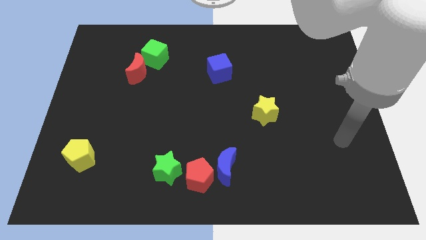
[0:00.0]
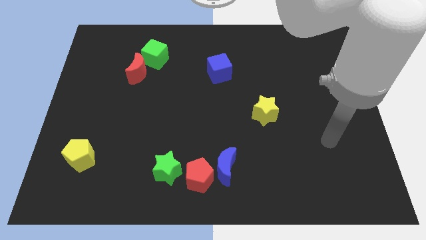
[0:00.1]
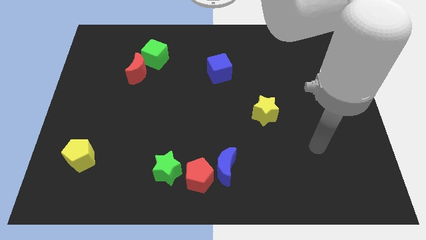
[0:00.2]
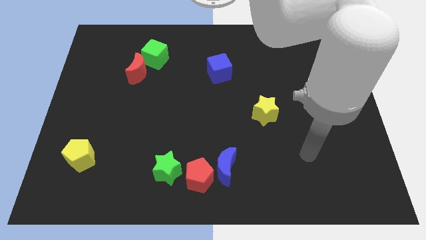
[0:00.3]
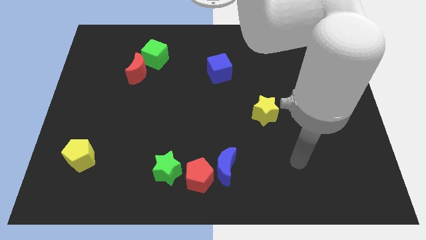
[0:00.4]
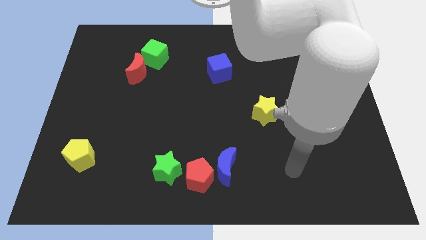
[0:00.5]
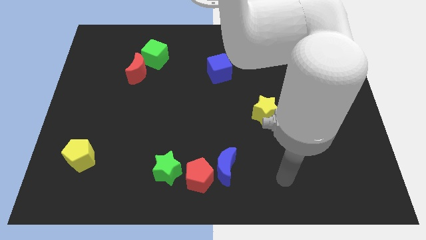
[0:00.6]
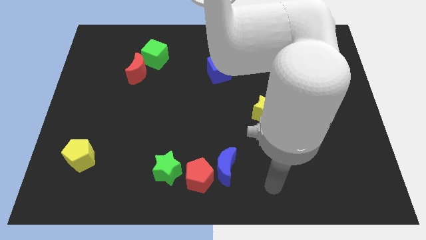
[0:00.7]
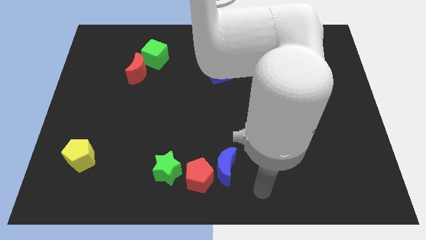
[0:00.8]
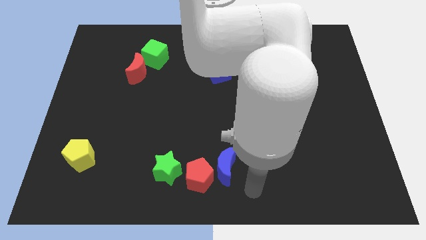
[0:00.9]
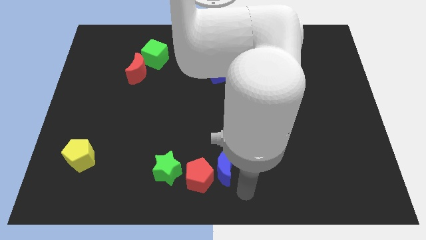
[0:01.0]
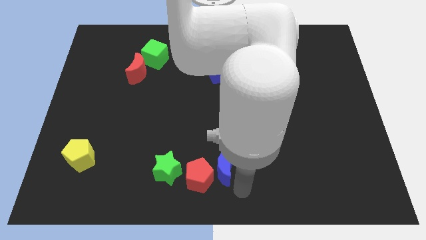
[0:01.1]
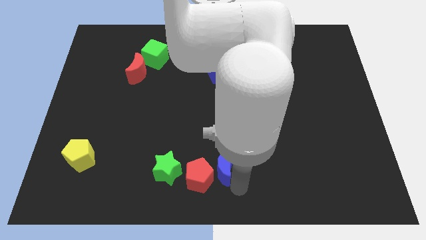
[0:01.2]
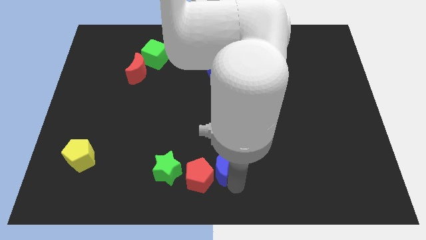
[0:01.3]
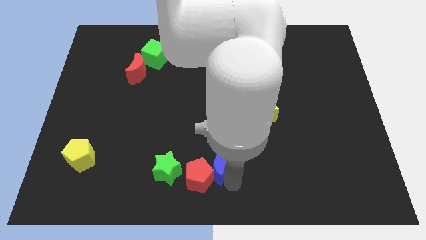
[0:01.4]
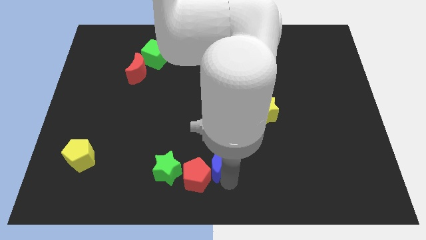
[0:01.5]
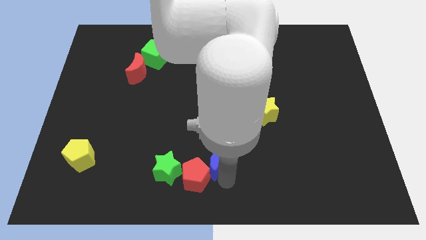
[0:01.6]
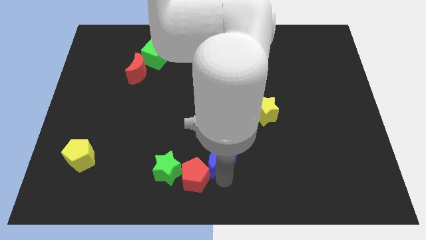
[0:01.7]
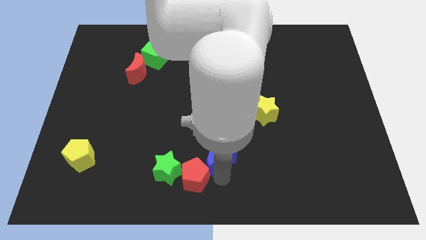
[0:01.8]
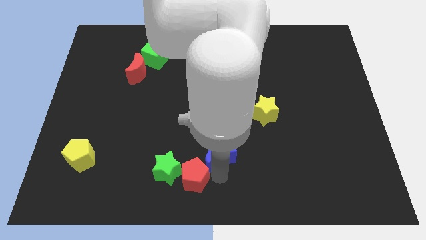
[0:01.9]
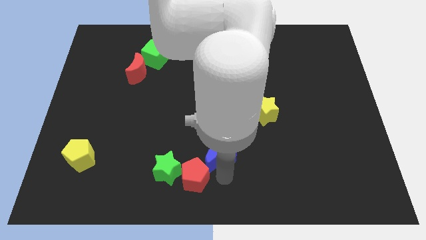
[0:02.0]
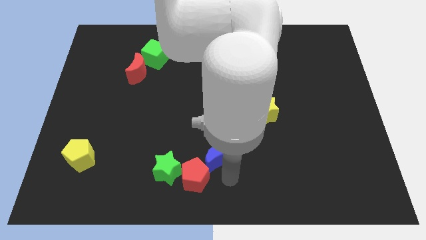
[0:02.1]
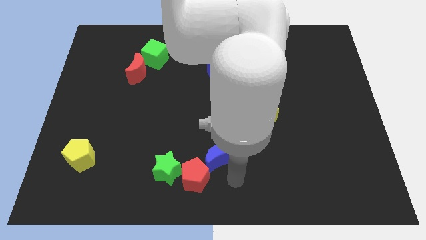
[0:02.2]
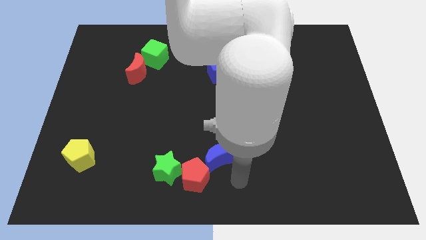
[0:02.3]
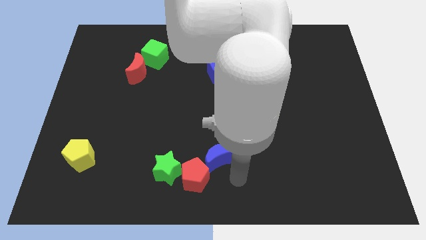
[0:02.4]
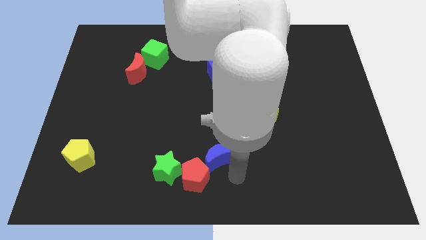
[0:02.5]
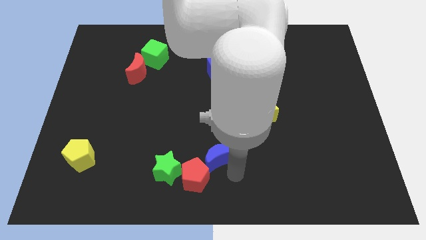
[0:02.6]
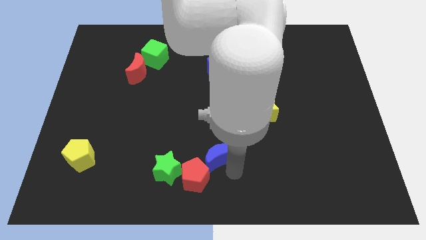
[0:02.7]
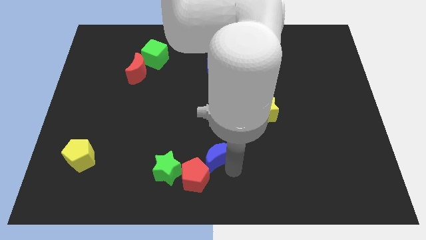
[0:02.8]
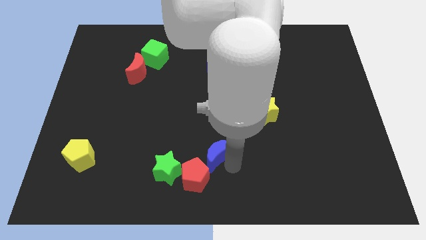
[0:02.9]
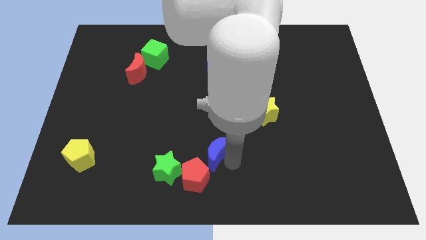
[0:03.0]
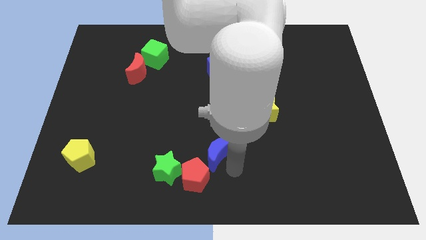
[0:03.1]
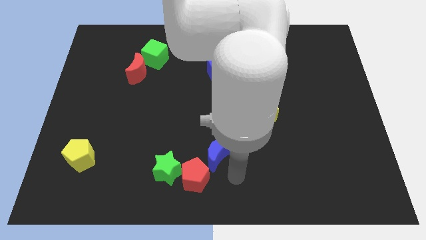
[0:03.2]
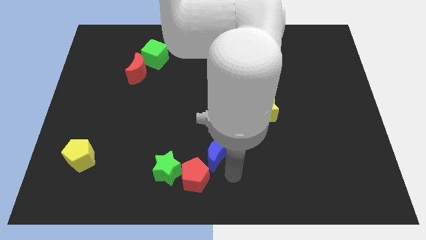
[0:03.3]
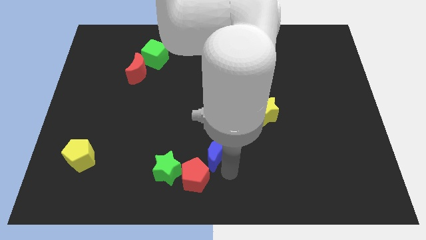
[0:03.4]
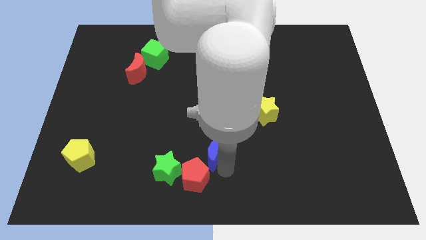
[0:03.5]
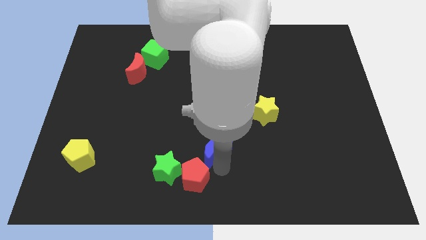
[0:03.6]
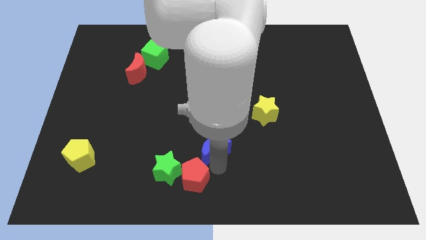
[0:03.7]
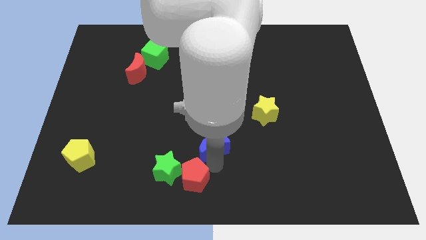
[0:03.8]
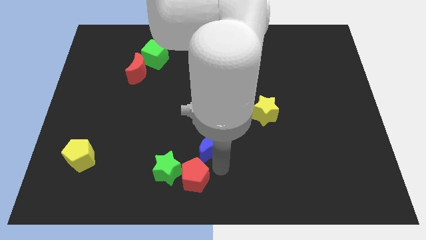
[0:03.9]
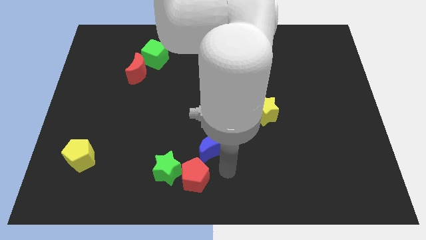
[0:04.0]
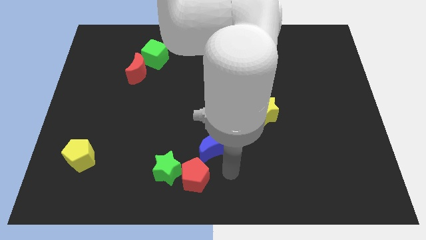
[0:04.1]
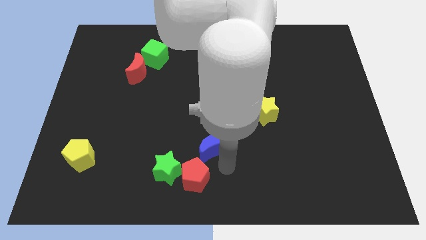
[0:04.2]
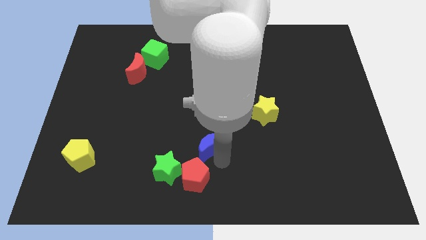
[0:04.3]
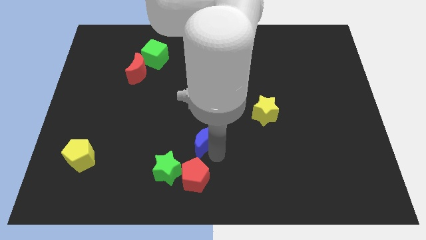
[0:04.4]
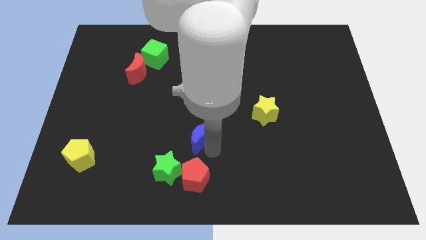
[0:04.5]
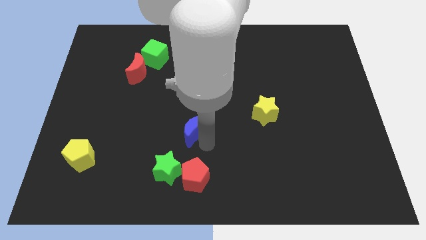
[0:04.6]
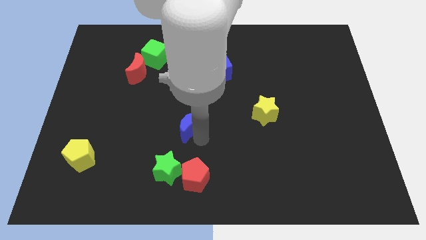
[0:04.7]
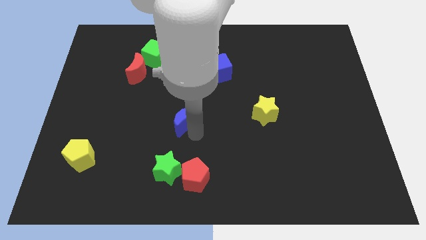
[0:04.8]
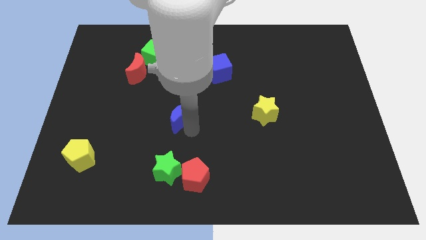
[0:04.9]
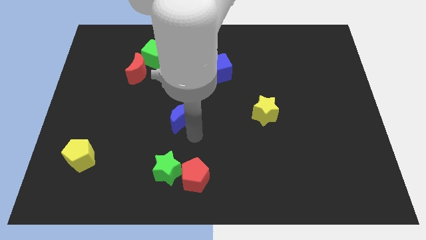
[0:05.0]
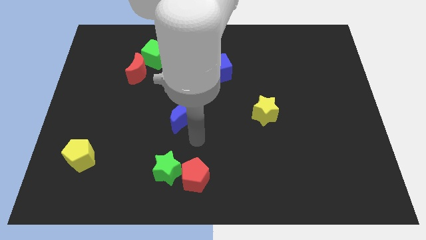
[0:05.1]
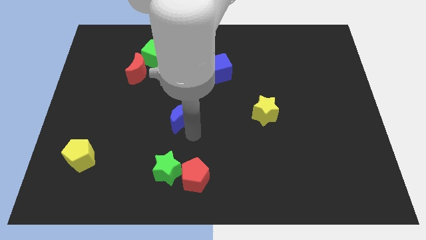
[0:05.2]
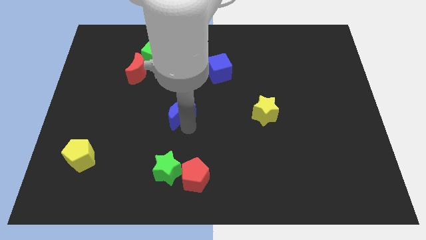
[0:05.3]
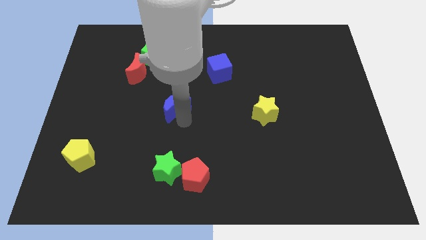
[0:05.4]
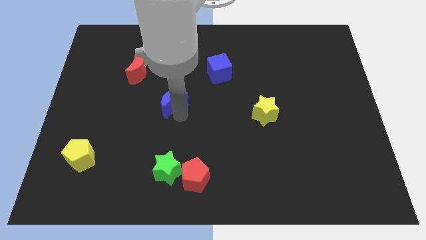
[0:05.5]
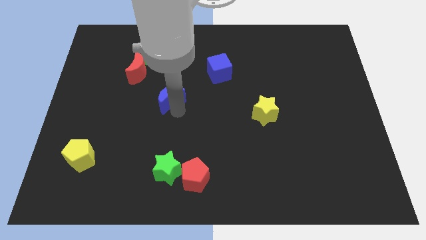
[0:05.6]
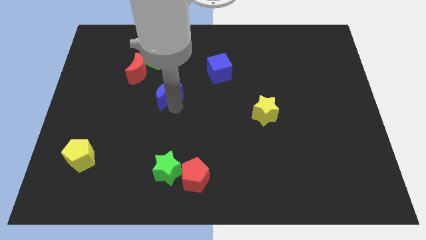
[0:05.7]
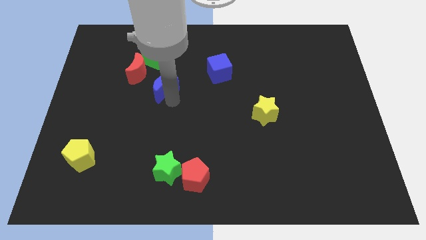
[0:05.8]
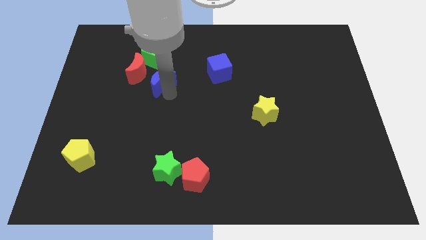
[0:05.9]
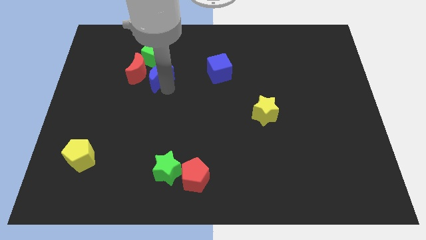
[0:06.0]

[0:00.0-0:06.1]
move the blue moon towards the red moon

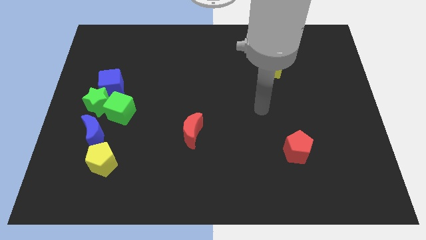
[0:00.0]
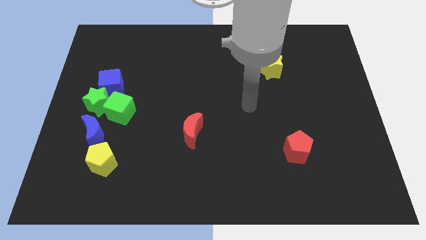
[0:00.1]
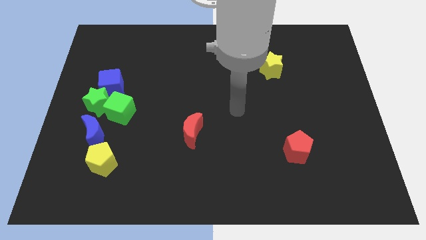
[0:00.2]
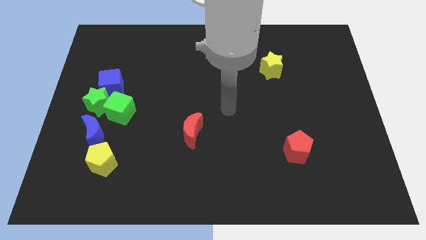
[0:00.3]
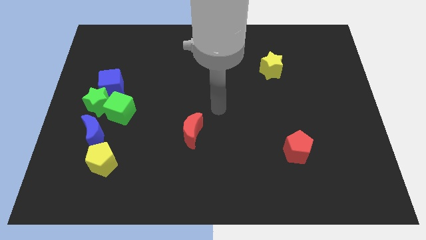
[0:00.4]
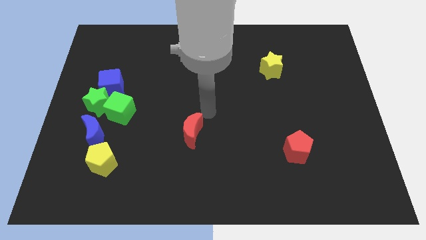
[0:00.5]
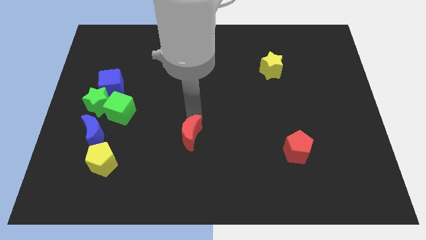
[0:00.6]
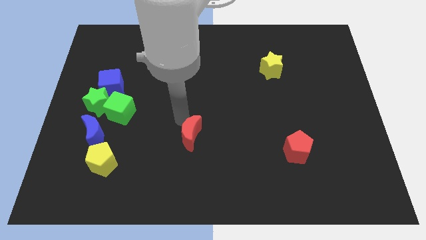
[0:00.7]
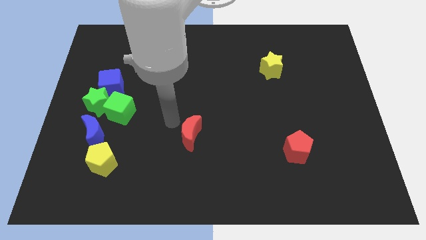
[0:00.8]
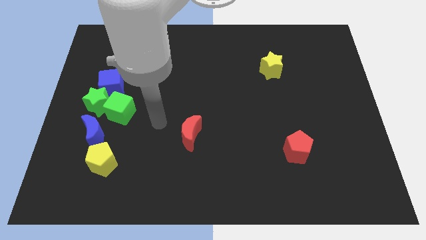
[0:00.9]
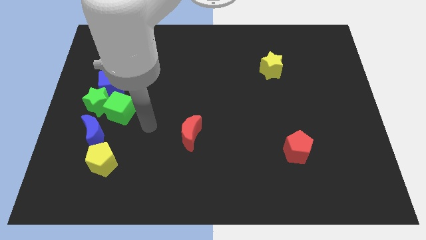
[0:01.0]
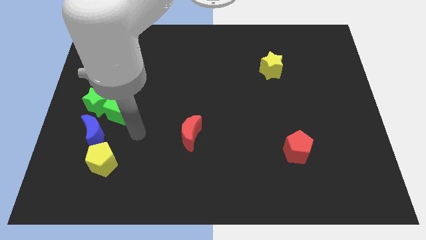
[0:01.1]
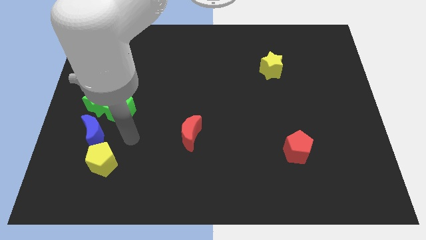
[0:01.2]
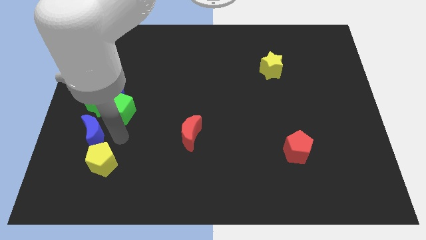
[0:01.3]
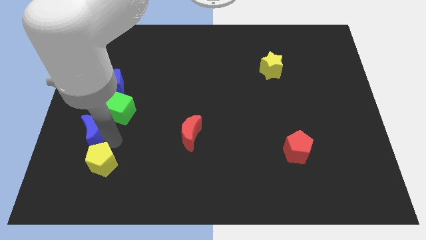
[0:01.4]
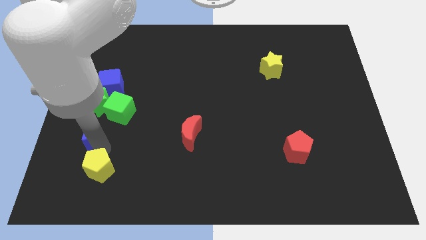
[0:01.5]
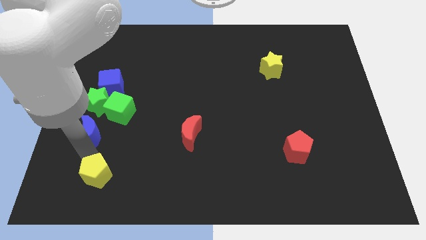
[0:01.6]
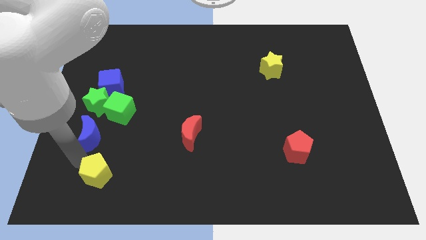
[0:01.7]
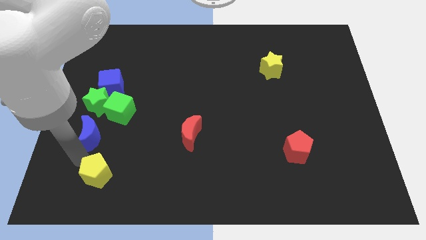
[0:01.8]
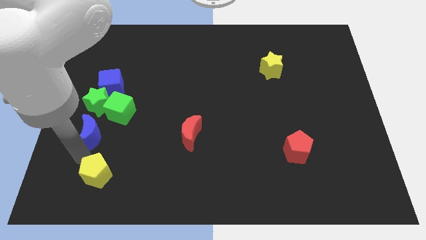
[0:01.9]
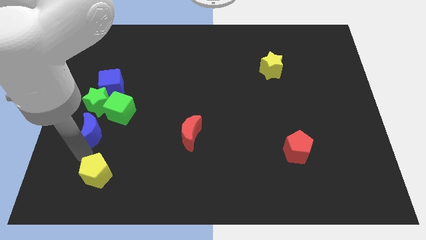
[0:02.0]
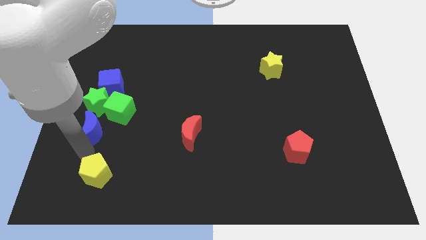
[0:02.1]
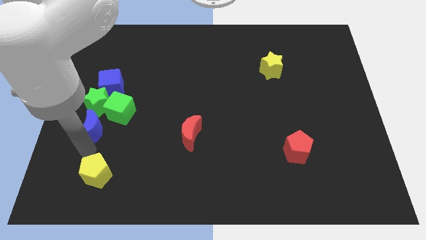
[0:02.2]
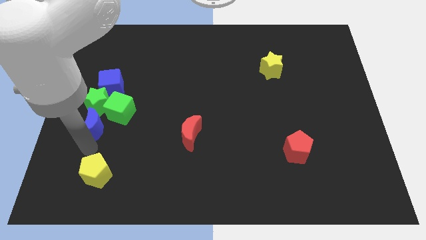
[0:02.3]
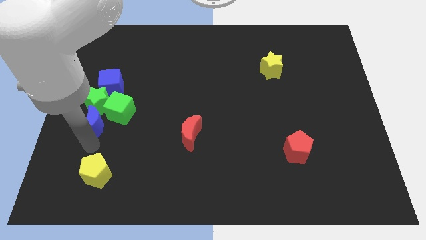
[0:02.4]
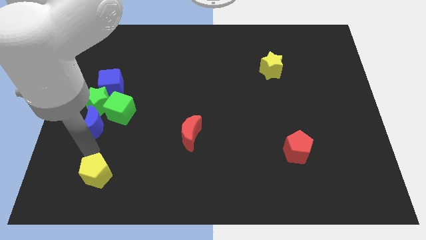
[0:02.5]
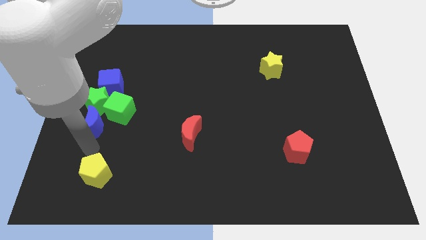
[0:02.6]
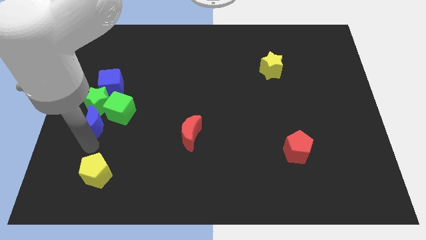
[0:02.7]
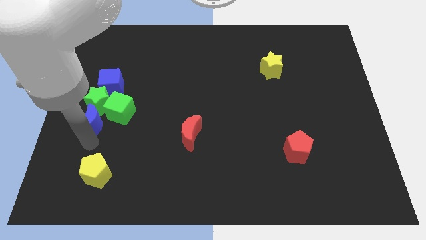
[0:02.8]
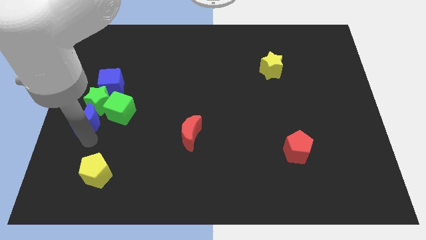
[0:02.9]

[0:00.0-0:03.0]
move the blue moon to the green star
